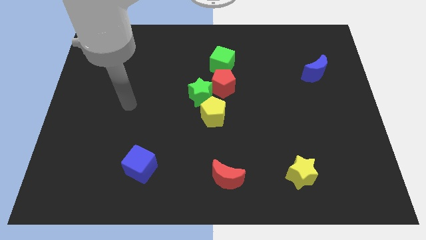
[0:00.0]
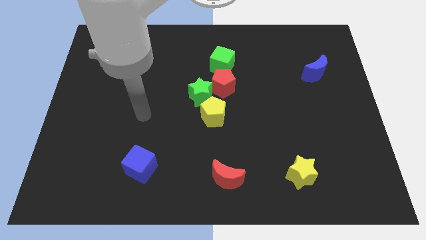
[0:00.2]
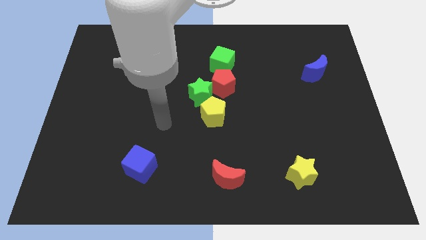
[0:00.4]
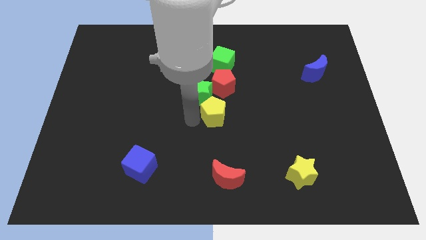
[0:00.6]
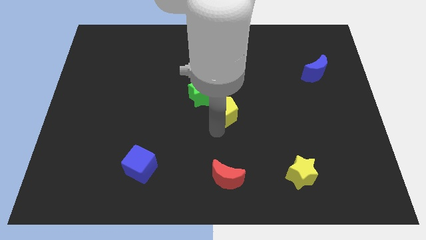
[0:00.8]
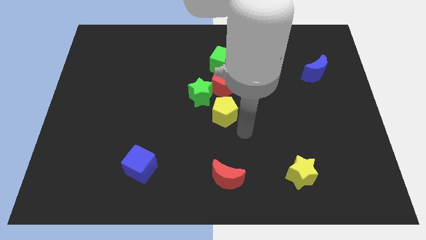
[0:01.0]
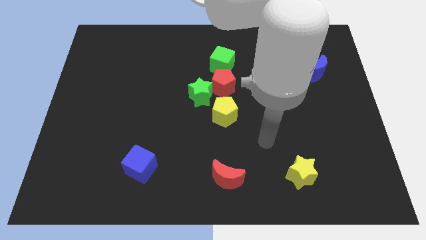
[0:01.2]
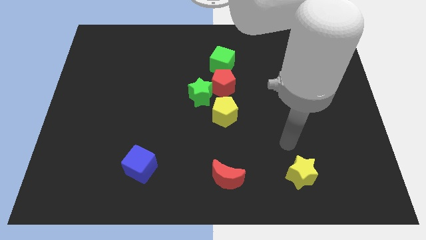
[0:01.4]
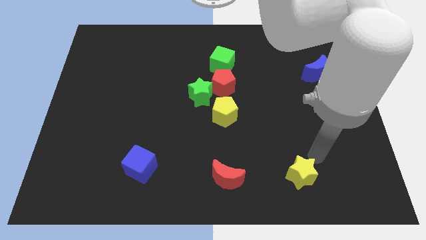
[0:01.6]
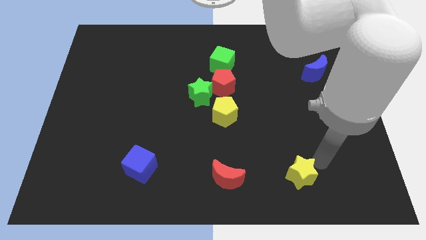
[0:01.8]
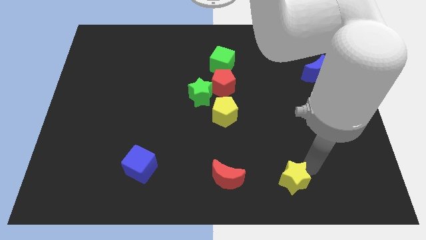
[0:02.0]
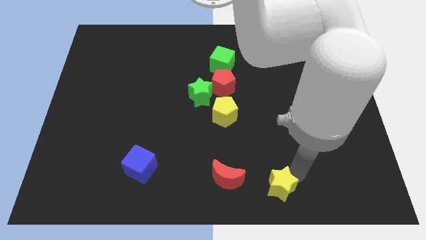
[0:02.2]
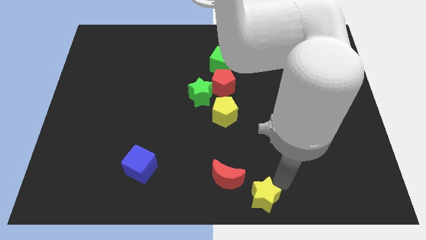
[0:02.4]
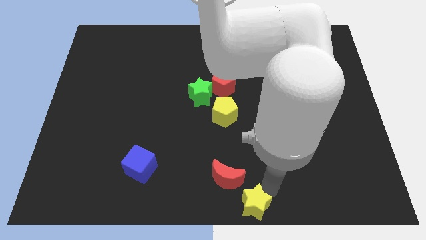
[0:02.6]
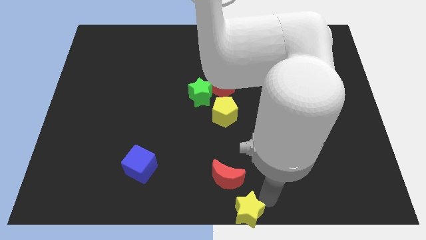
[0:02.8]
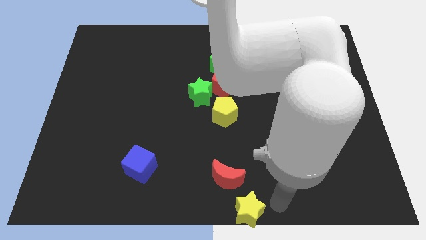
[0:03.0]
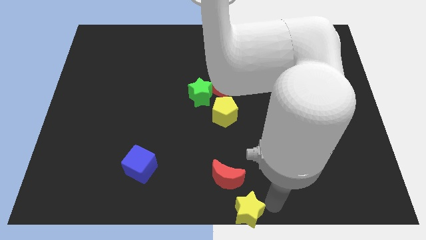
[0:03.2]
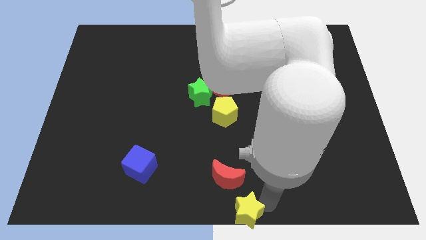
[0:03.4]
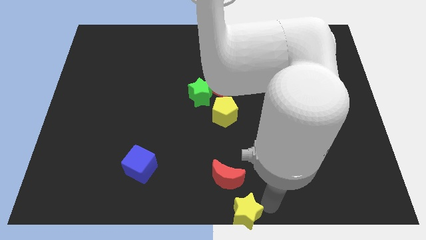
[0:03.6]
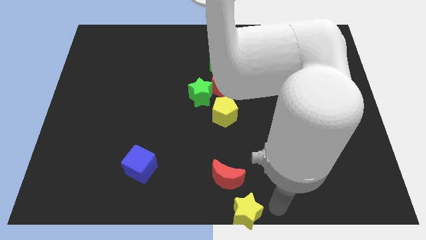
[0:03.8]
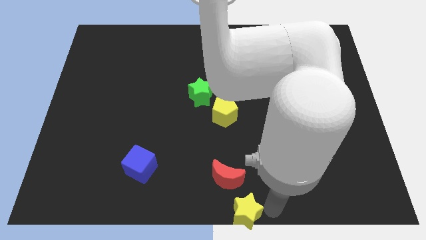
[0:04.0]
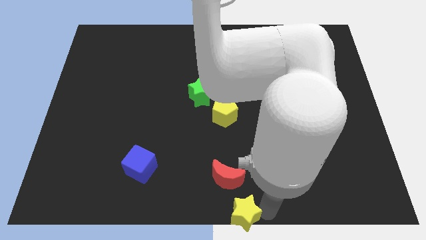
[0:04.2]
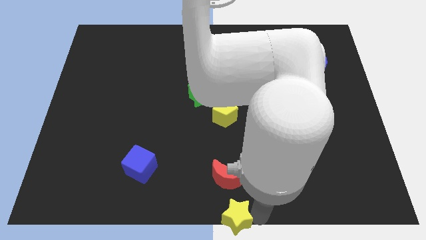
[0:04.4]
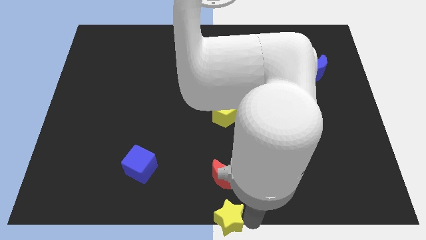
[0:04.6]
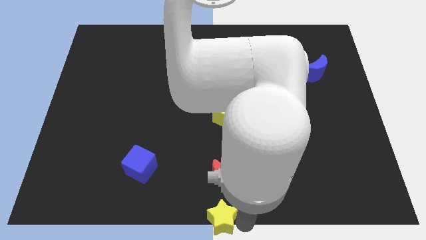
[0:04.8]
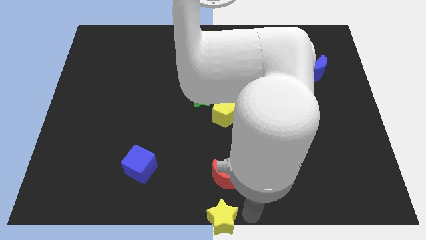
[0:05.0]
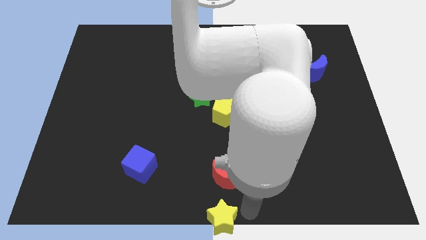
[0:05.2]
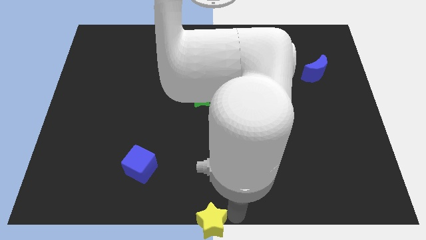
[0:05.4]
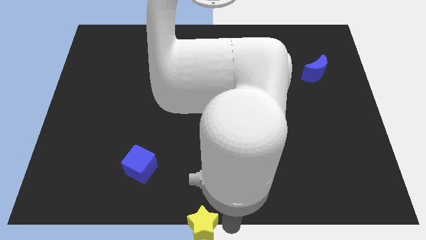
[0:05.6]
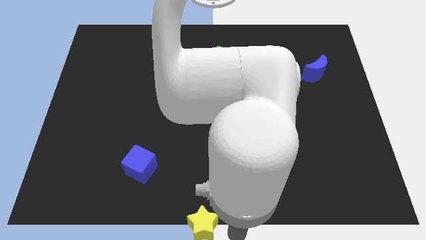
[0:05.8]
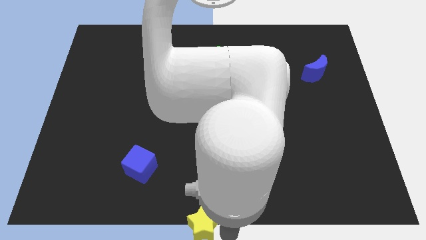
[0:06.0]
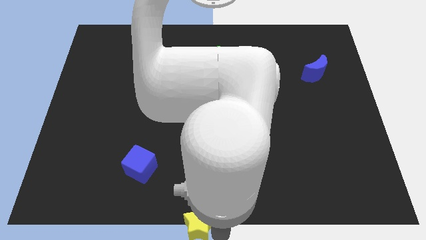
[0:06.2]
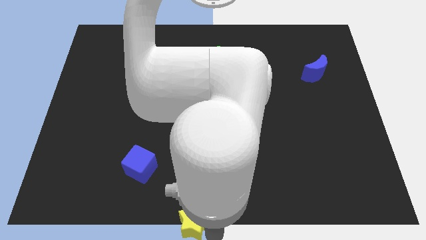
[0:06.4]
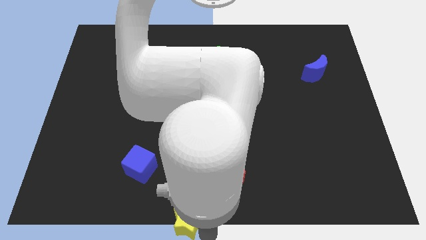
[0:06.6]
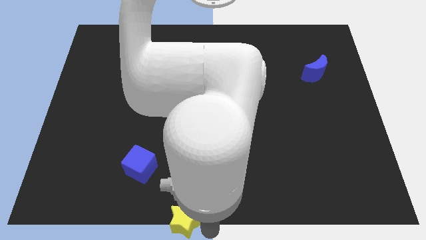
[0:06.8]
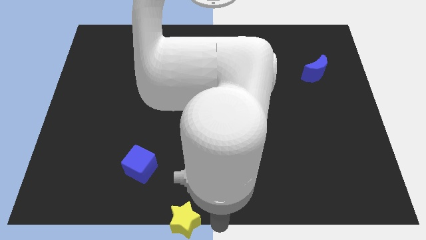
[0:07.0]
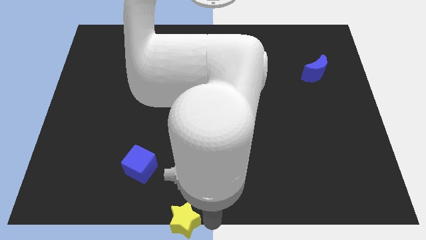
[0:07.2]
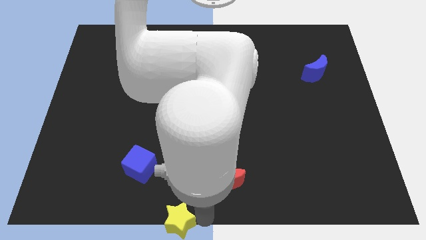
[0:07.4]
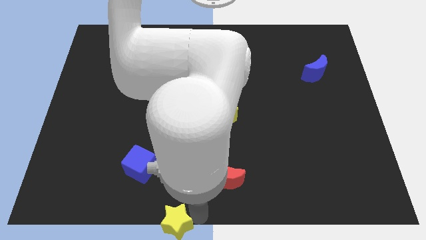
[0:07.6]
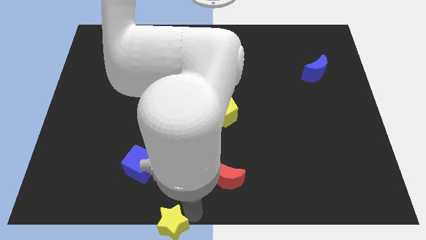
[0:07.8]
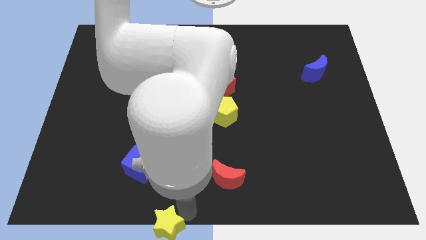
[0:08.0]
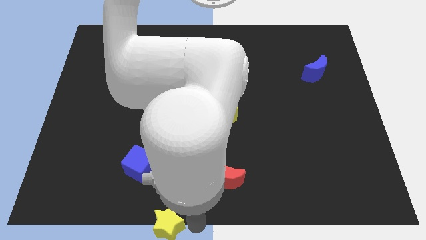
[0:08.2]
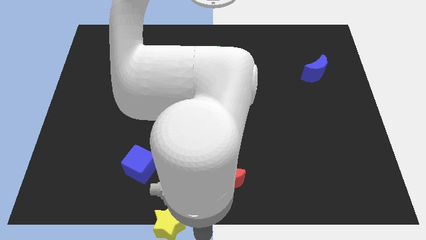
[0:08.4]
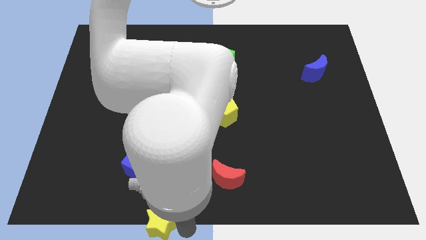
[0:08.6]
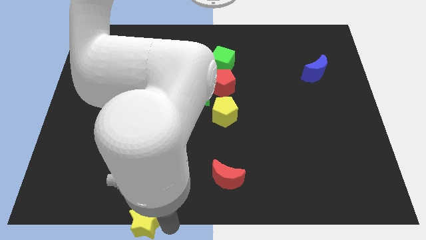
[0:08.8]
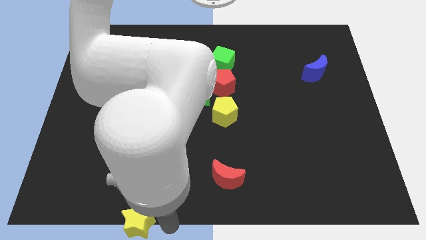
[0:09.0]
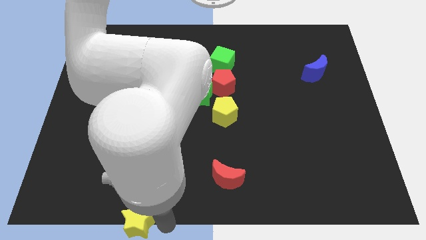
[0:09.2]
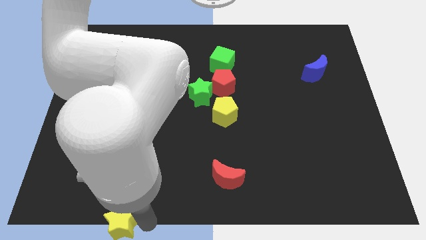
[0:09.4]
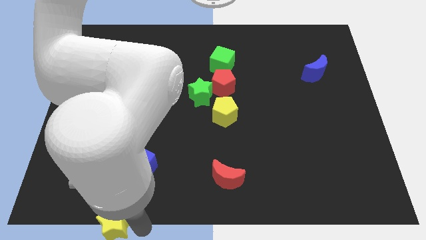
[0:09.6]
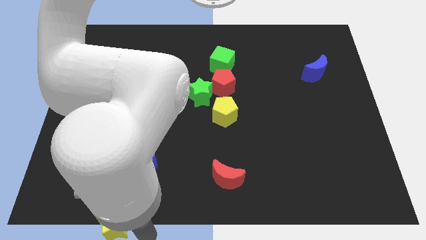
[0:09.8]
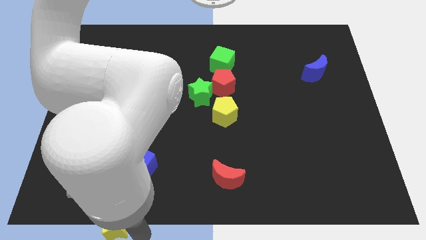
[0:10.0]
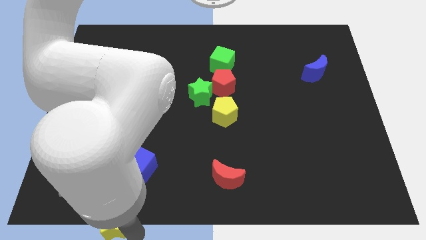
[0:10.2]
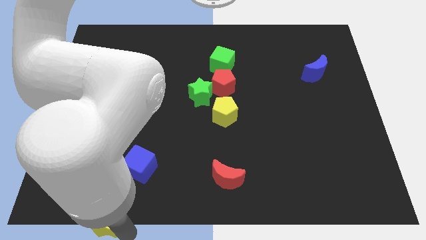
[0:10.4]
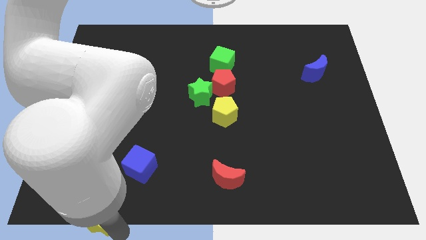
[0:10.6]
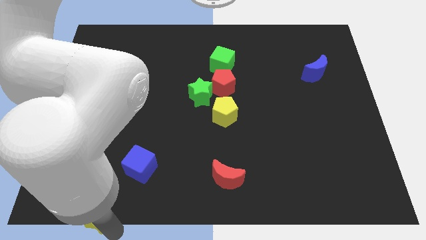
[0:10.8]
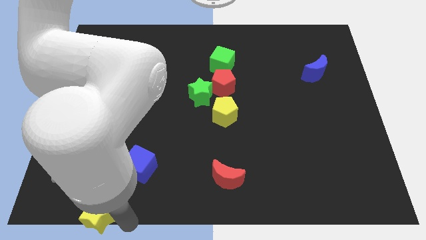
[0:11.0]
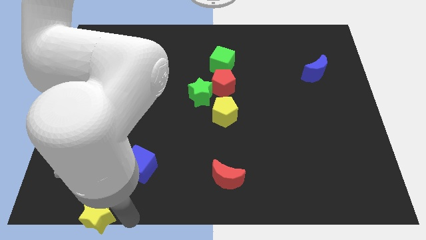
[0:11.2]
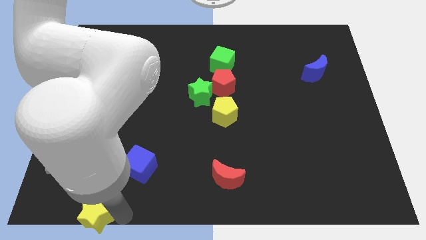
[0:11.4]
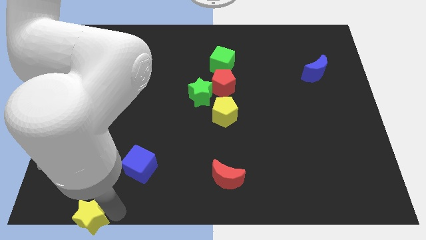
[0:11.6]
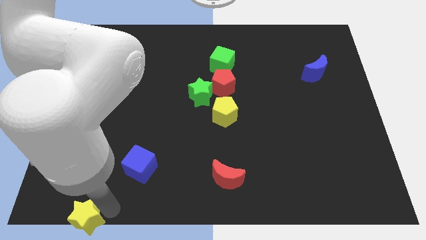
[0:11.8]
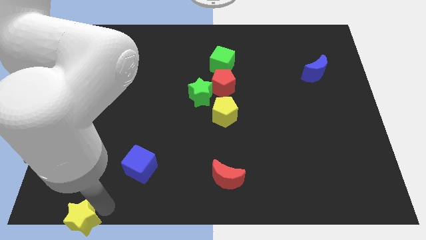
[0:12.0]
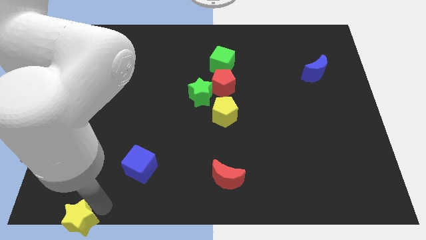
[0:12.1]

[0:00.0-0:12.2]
put the yellow star to the lower left corner

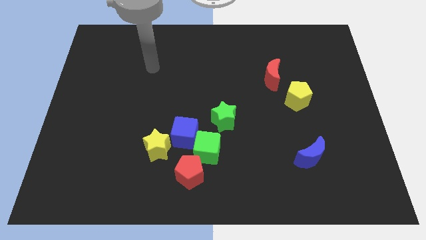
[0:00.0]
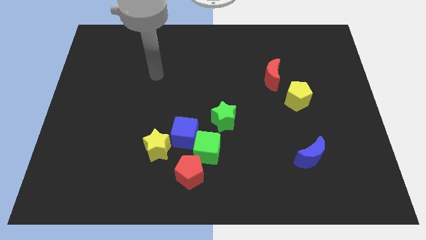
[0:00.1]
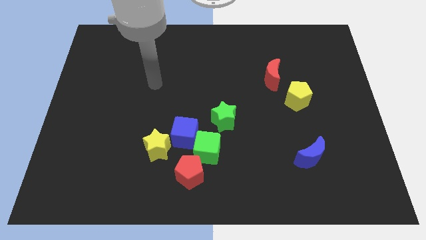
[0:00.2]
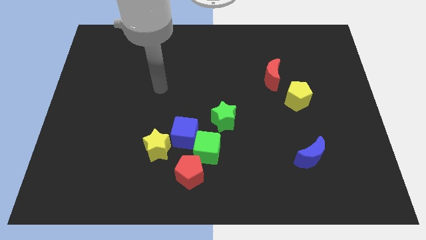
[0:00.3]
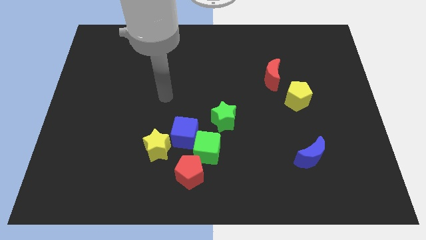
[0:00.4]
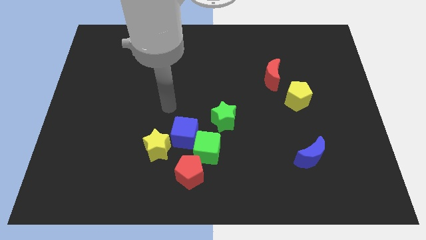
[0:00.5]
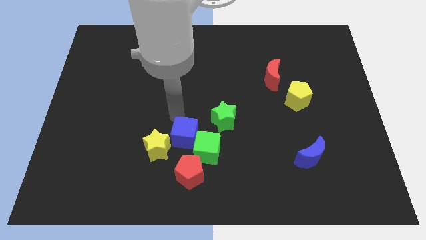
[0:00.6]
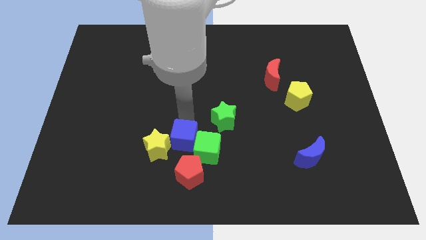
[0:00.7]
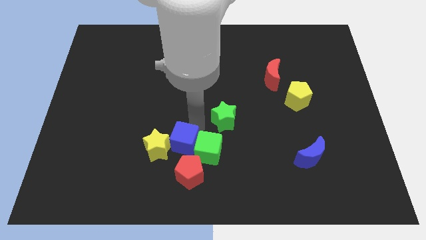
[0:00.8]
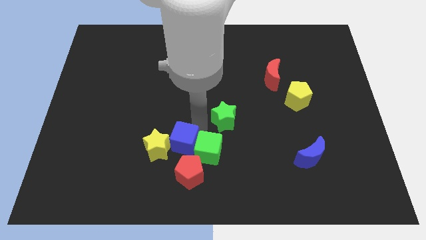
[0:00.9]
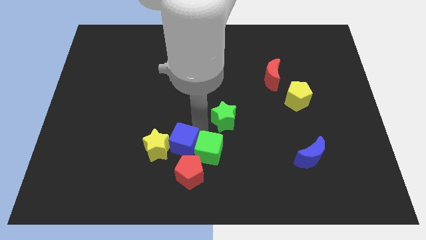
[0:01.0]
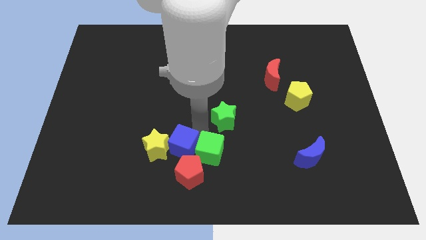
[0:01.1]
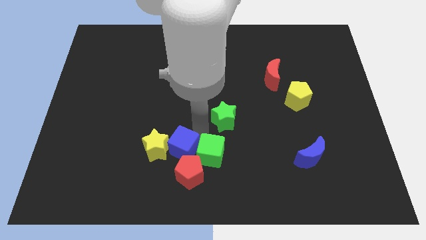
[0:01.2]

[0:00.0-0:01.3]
slide the green cube to the bottom
